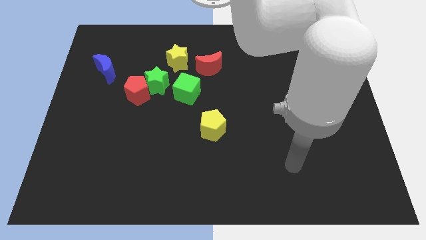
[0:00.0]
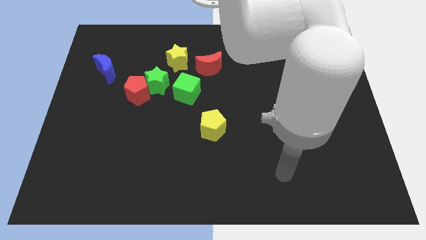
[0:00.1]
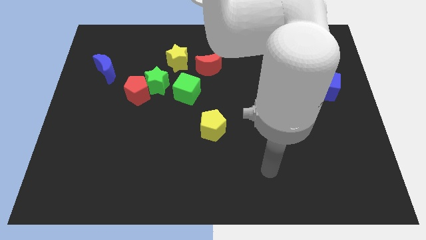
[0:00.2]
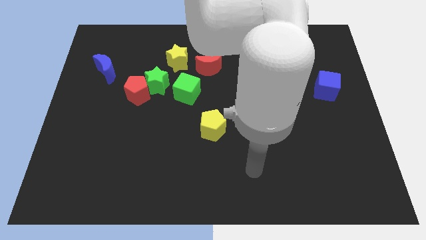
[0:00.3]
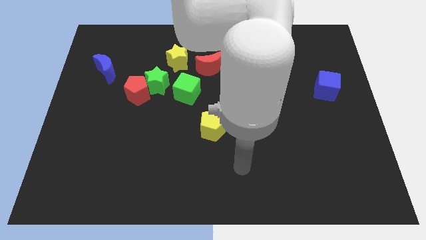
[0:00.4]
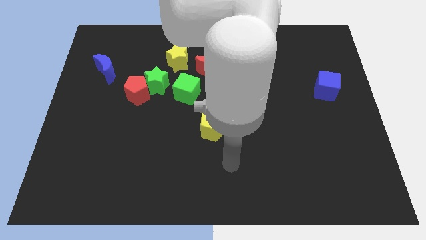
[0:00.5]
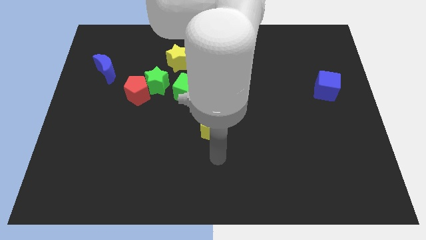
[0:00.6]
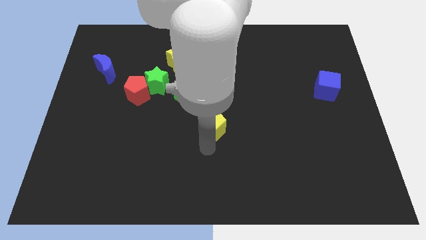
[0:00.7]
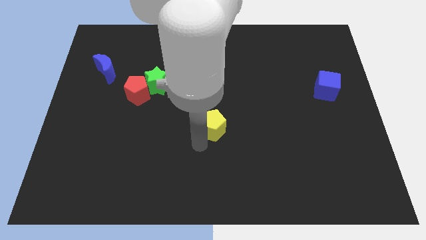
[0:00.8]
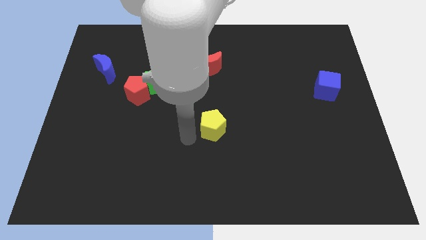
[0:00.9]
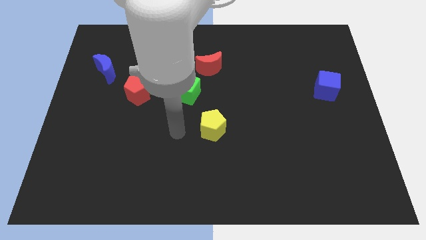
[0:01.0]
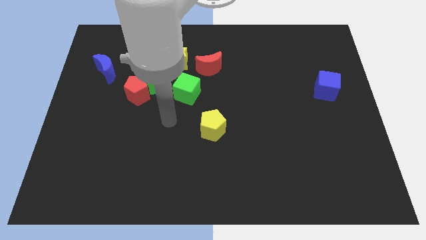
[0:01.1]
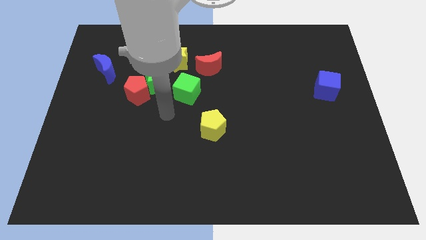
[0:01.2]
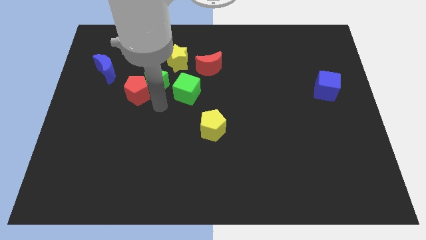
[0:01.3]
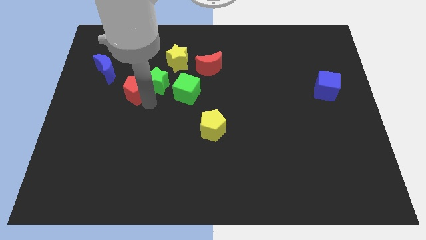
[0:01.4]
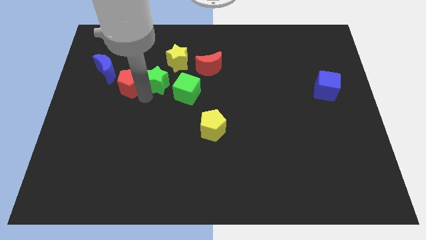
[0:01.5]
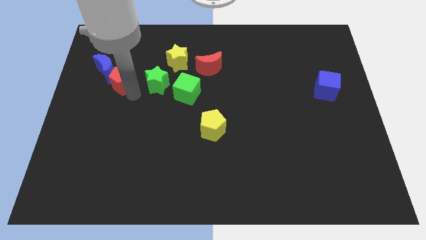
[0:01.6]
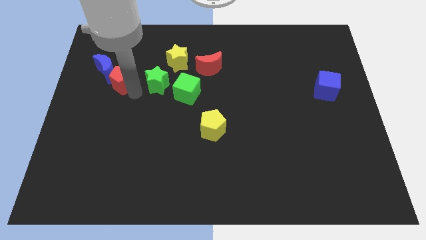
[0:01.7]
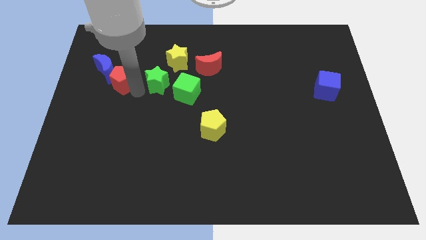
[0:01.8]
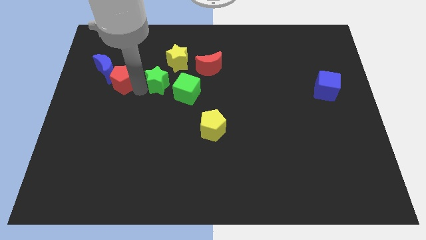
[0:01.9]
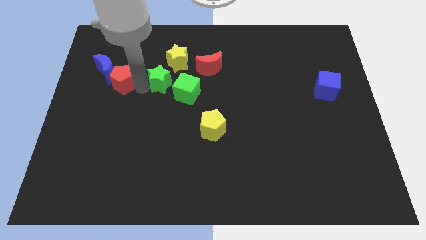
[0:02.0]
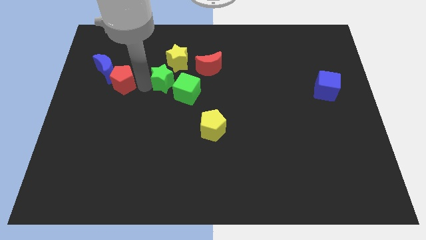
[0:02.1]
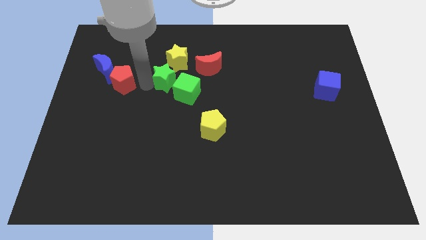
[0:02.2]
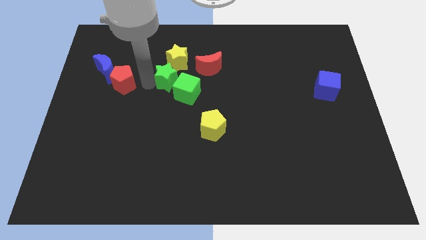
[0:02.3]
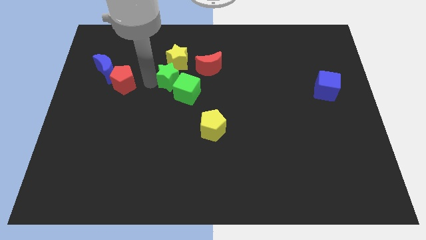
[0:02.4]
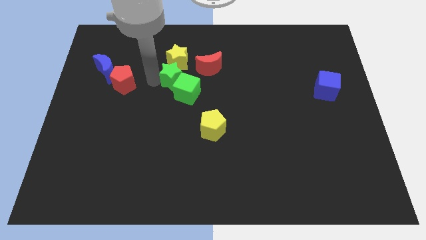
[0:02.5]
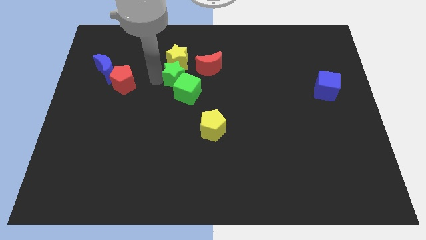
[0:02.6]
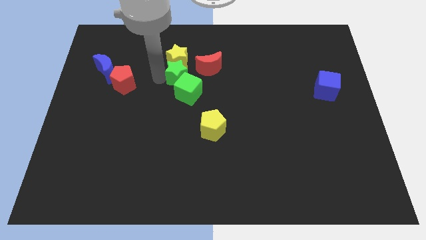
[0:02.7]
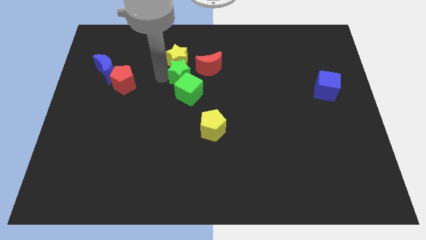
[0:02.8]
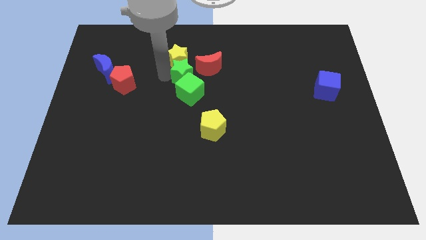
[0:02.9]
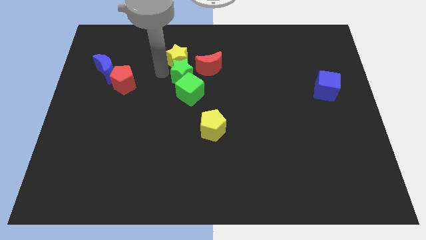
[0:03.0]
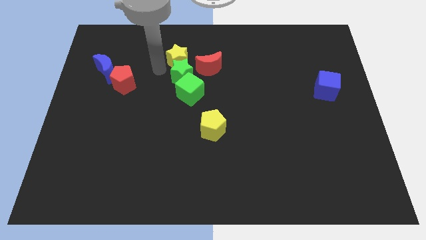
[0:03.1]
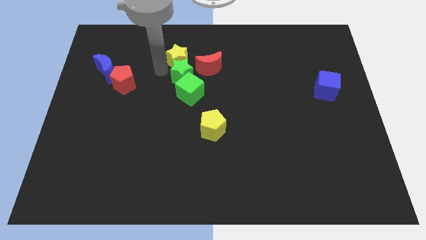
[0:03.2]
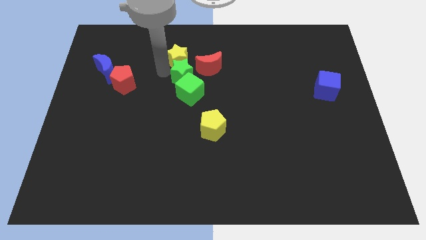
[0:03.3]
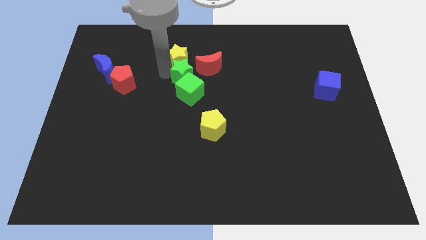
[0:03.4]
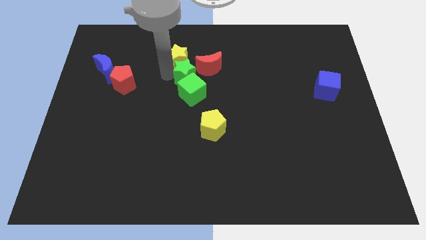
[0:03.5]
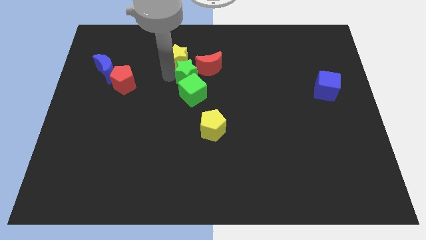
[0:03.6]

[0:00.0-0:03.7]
push the green star to the right somewhat

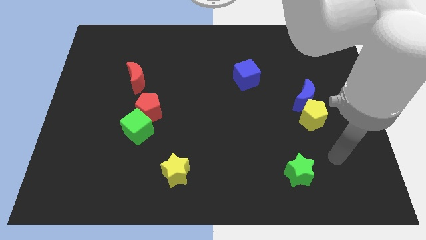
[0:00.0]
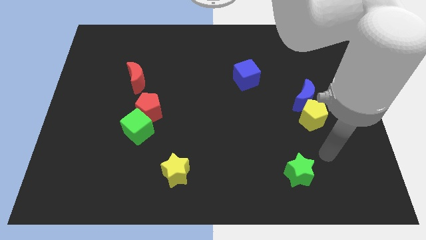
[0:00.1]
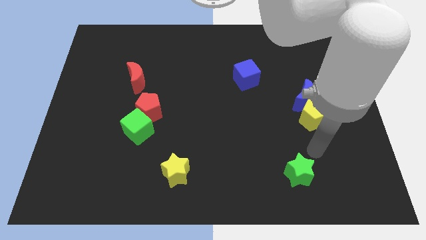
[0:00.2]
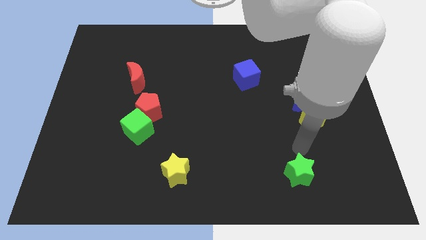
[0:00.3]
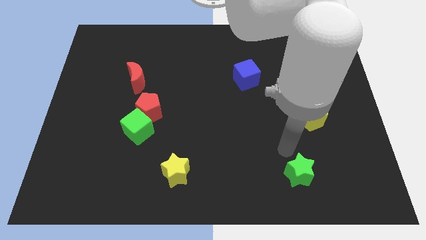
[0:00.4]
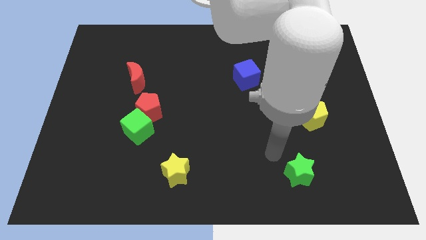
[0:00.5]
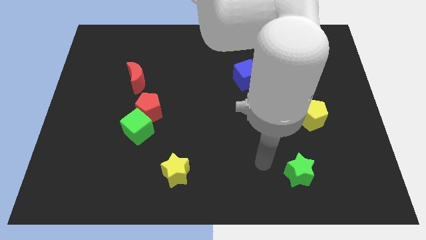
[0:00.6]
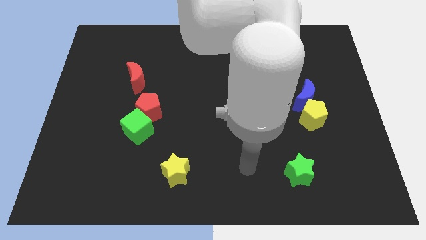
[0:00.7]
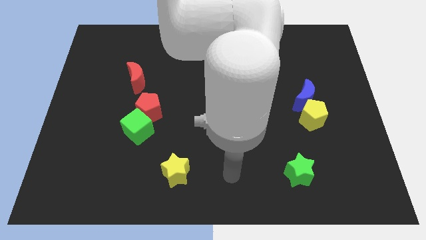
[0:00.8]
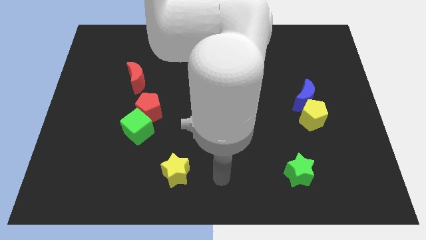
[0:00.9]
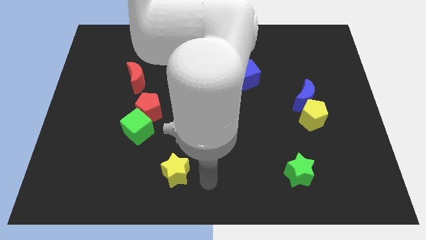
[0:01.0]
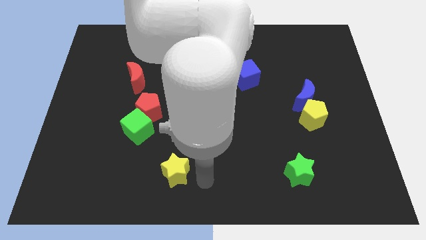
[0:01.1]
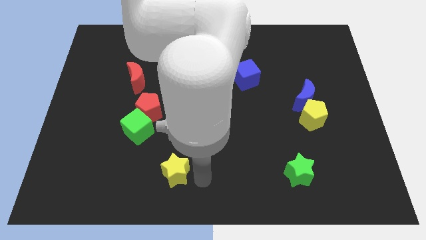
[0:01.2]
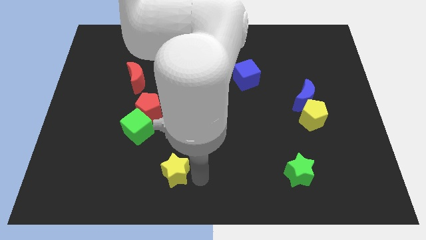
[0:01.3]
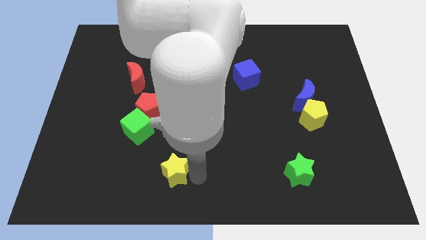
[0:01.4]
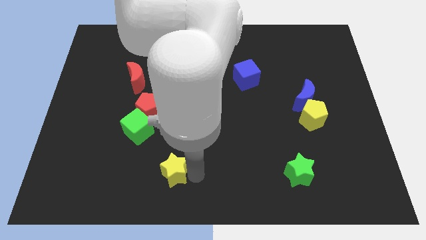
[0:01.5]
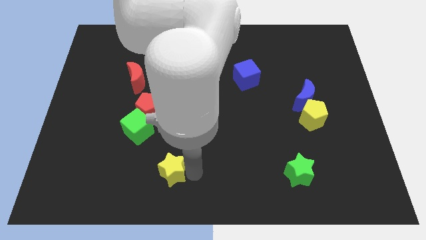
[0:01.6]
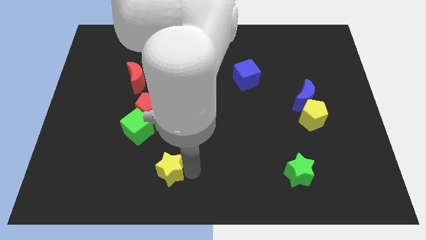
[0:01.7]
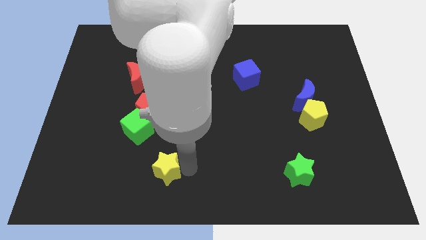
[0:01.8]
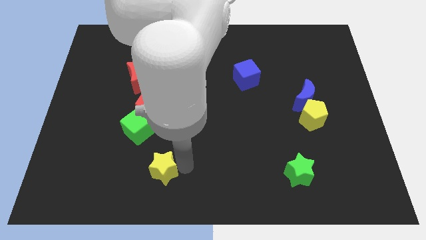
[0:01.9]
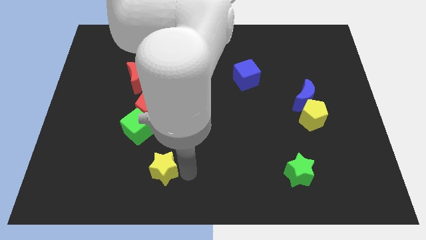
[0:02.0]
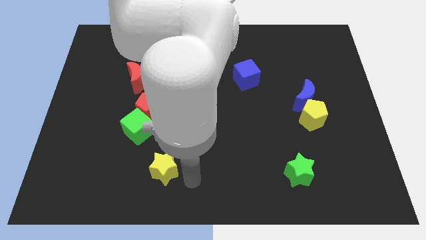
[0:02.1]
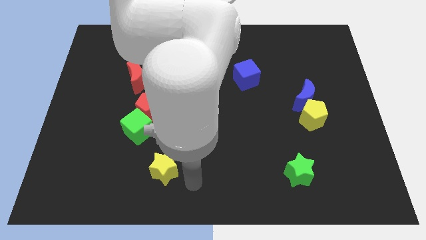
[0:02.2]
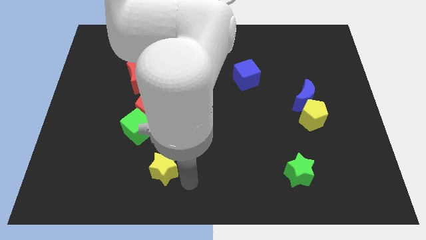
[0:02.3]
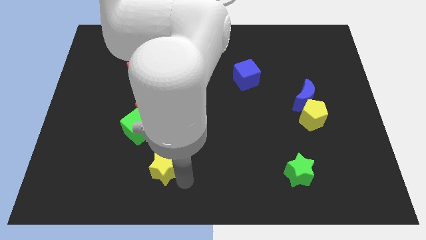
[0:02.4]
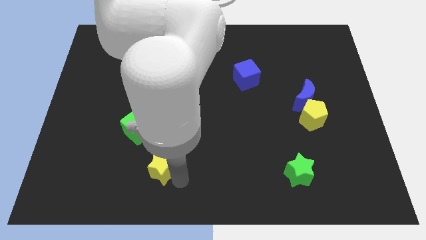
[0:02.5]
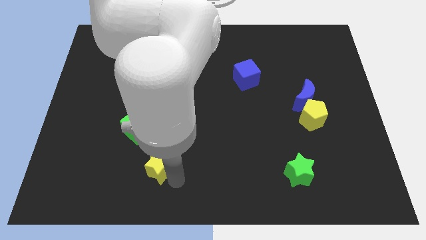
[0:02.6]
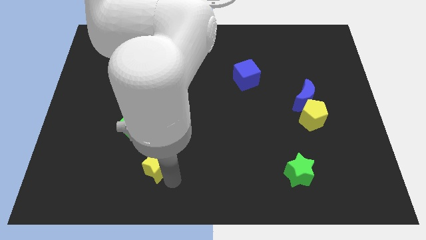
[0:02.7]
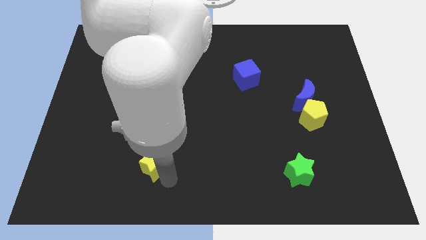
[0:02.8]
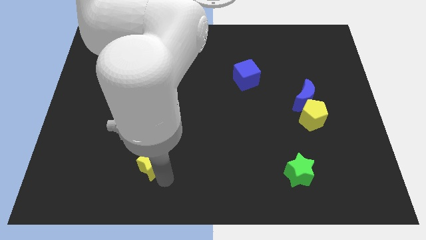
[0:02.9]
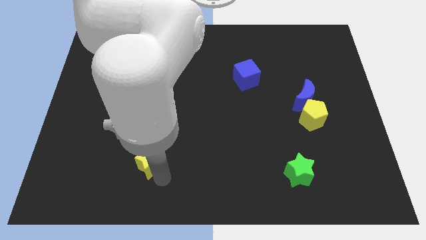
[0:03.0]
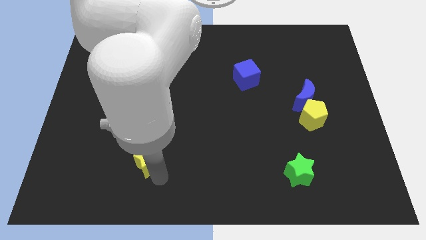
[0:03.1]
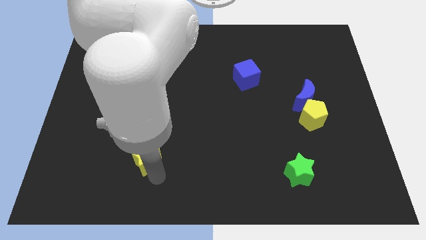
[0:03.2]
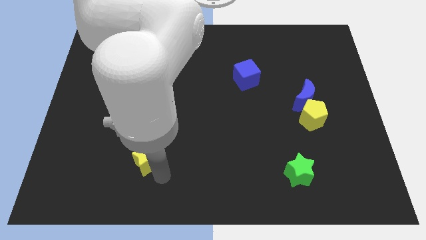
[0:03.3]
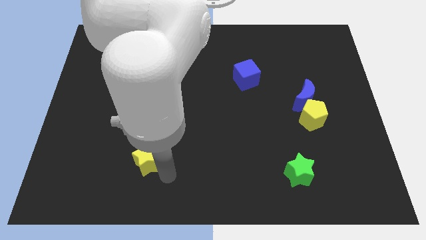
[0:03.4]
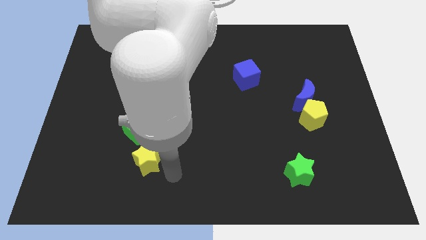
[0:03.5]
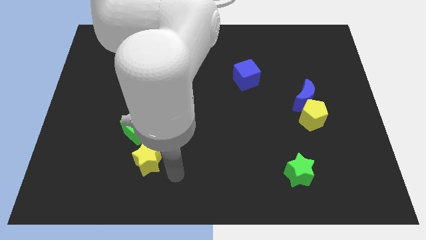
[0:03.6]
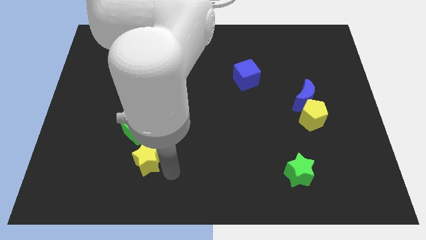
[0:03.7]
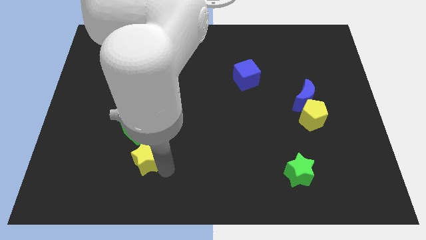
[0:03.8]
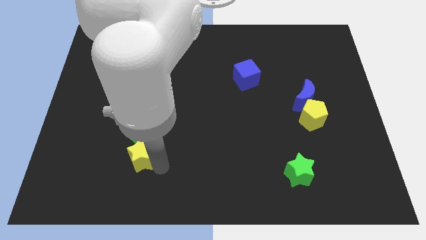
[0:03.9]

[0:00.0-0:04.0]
slide the yellow star somewhat upwards and to the left

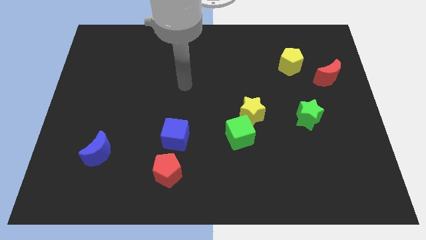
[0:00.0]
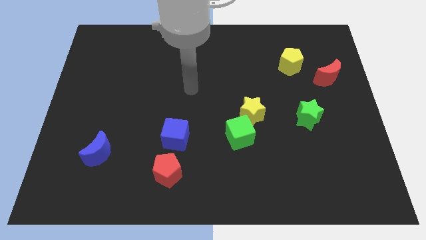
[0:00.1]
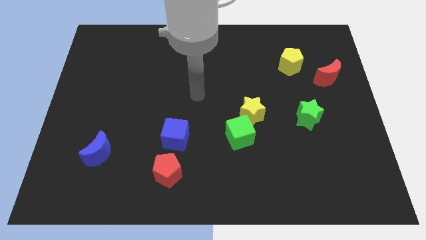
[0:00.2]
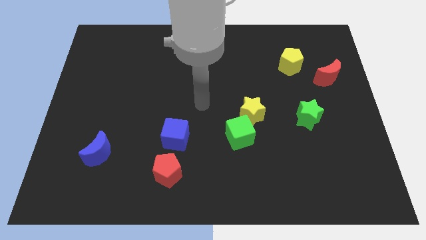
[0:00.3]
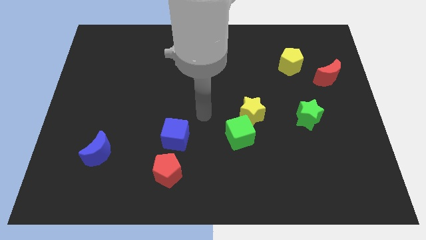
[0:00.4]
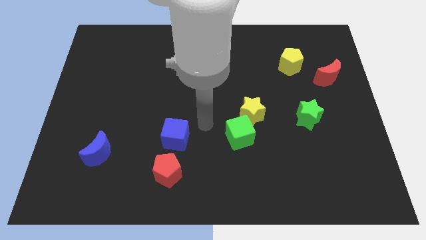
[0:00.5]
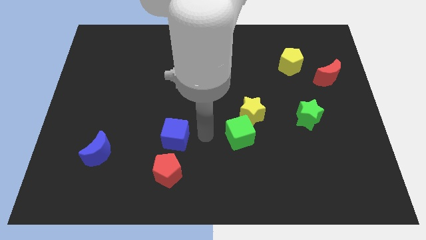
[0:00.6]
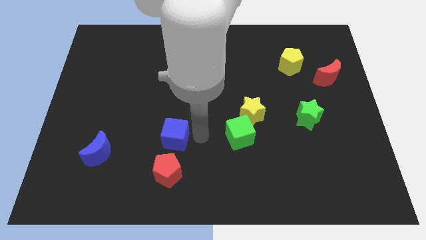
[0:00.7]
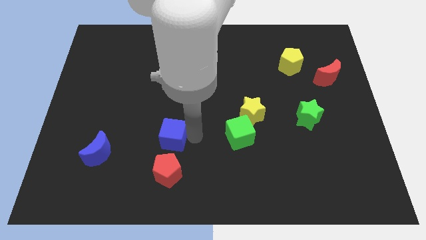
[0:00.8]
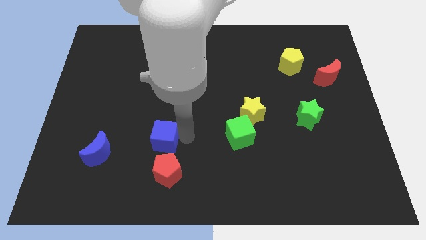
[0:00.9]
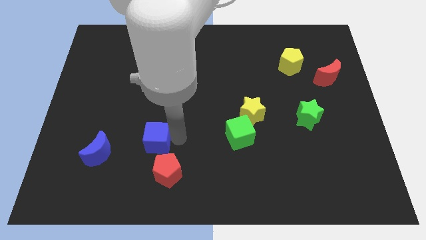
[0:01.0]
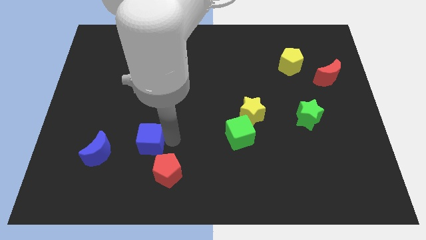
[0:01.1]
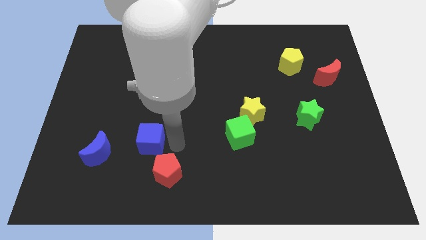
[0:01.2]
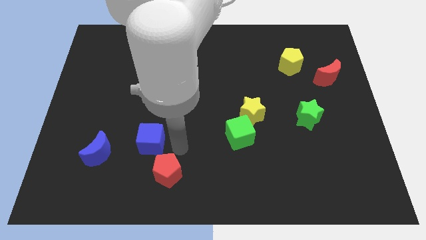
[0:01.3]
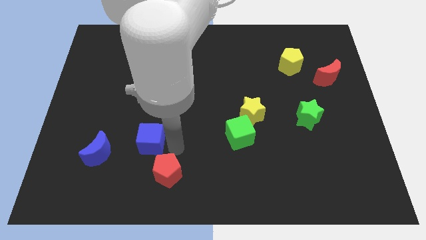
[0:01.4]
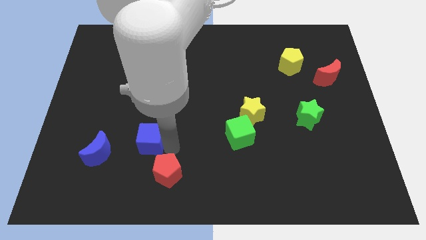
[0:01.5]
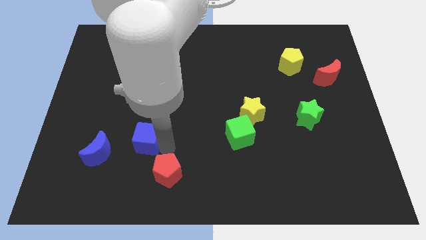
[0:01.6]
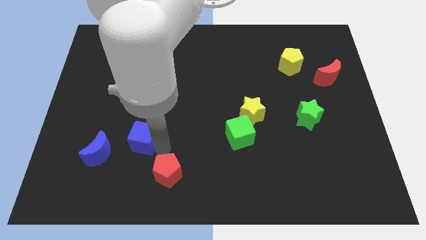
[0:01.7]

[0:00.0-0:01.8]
slightly move the blue cube to the left
